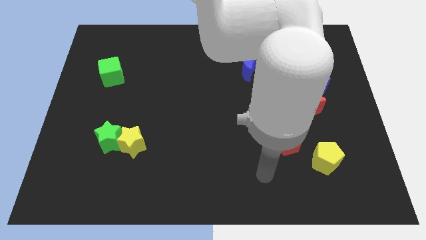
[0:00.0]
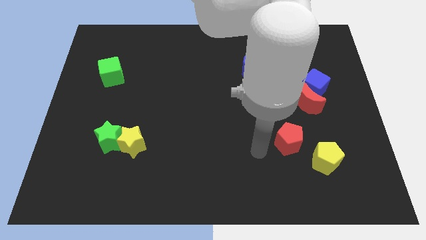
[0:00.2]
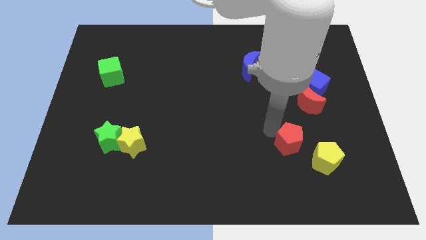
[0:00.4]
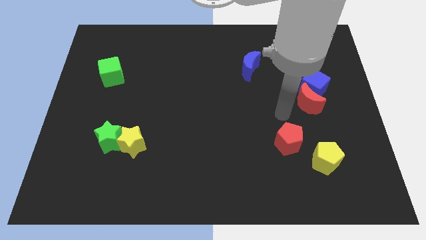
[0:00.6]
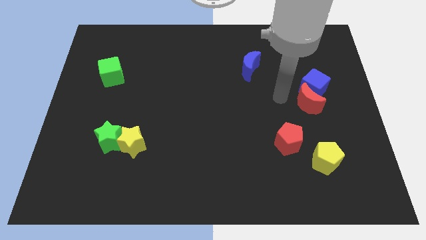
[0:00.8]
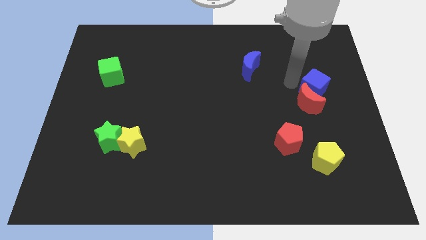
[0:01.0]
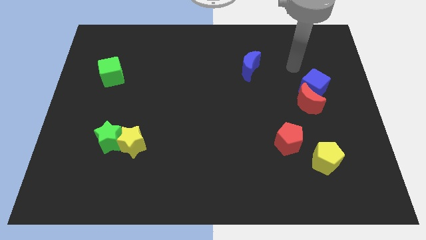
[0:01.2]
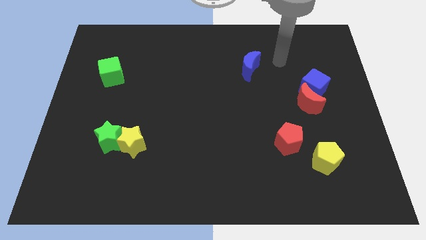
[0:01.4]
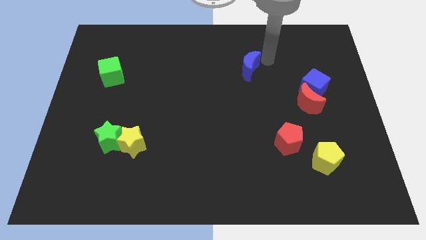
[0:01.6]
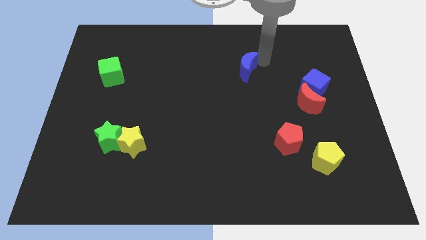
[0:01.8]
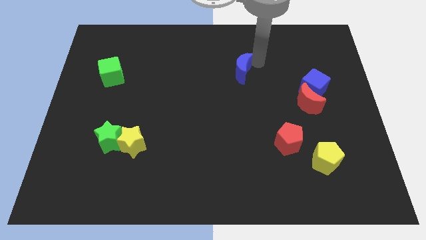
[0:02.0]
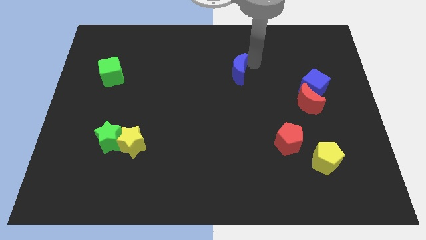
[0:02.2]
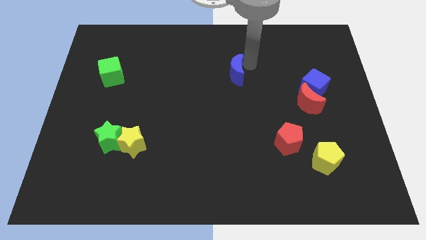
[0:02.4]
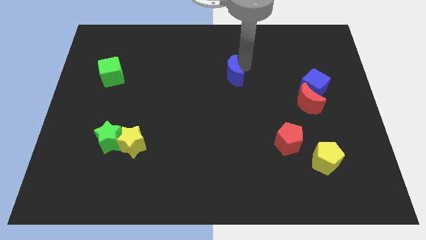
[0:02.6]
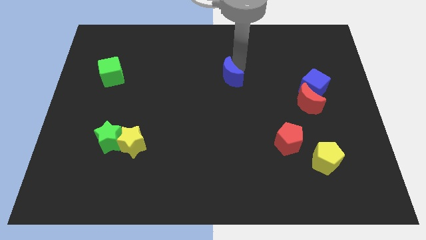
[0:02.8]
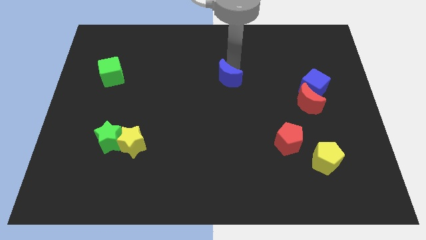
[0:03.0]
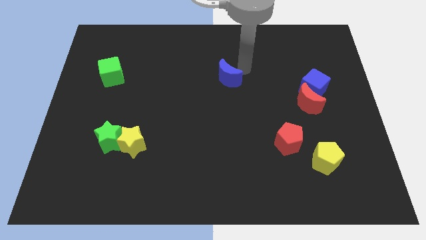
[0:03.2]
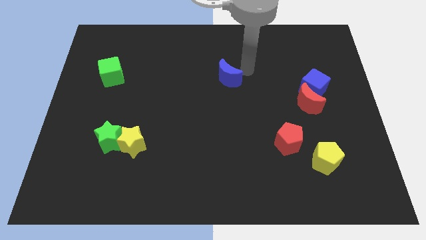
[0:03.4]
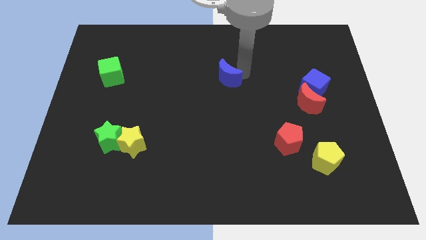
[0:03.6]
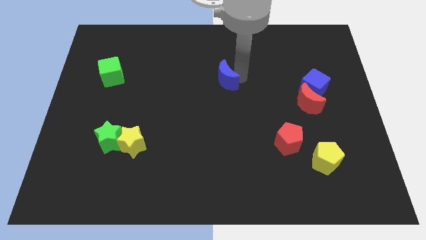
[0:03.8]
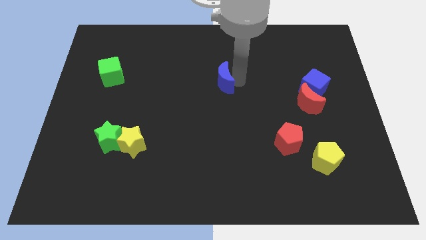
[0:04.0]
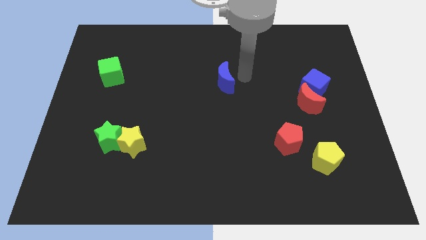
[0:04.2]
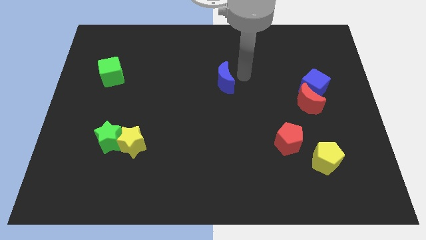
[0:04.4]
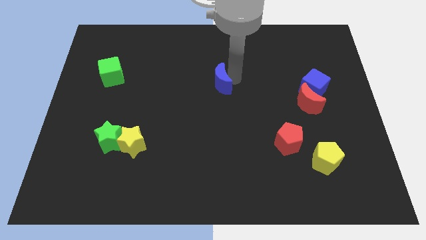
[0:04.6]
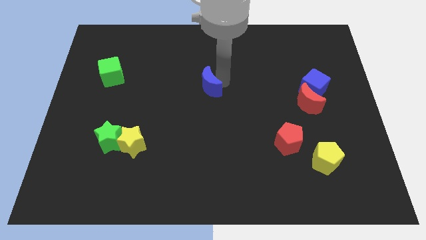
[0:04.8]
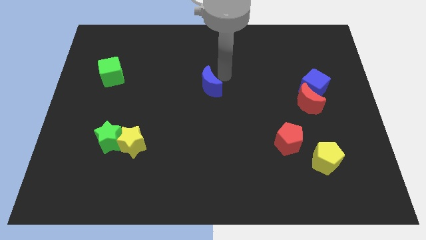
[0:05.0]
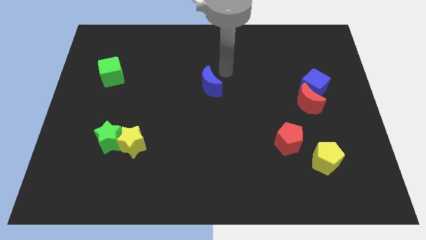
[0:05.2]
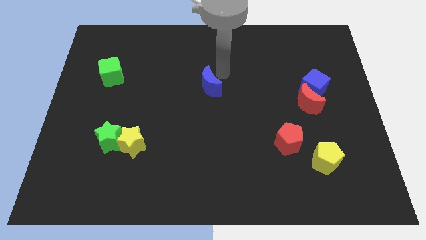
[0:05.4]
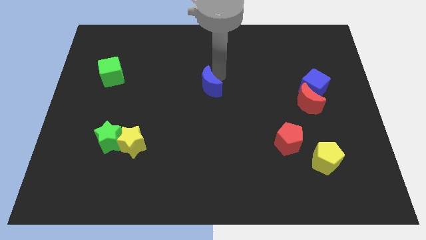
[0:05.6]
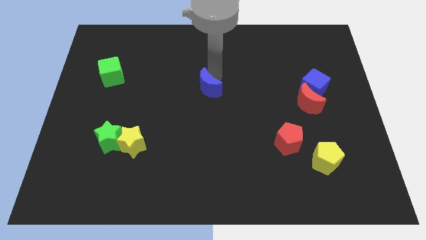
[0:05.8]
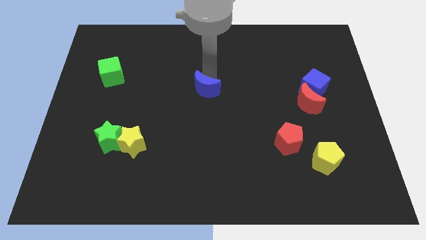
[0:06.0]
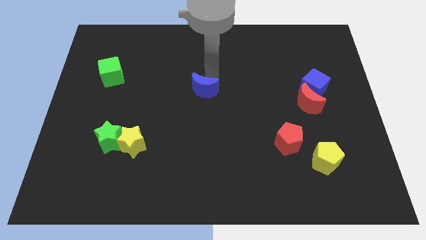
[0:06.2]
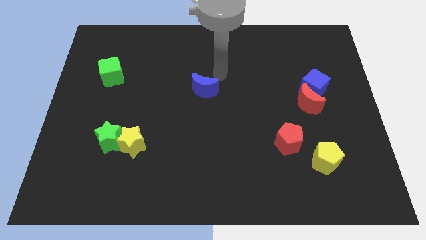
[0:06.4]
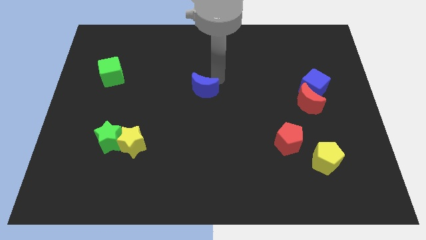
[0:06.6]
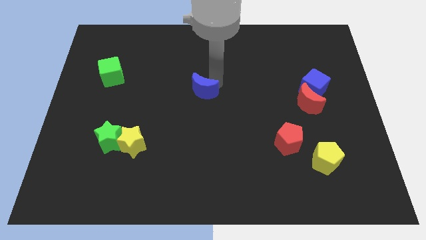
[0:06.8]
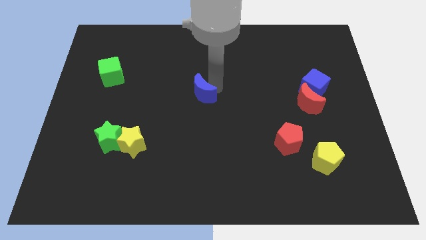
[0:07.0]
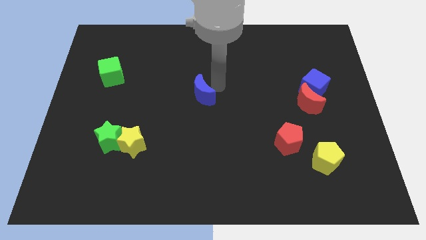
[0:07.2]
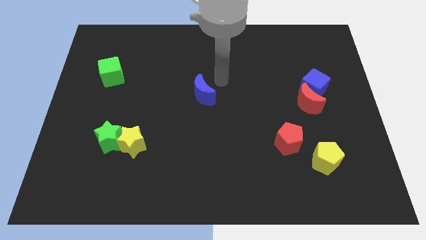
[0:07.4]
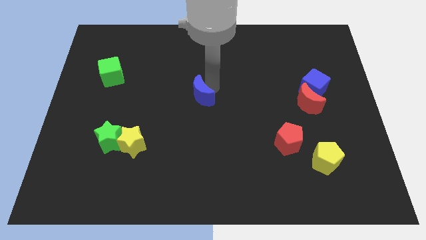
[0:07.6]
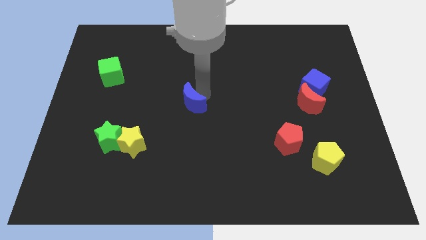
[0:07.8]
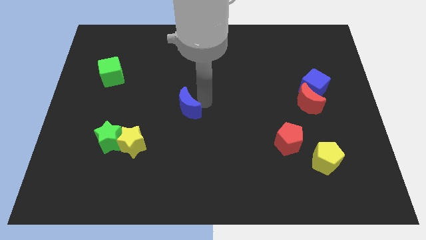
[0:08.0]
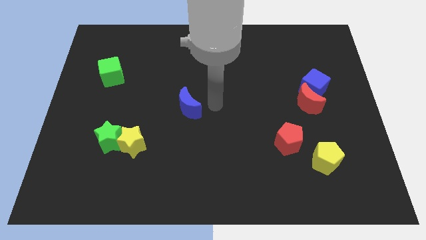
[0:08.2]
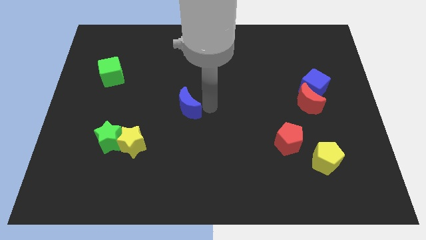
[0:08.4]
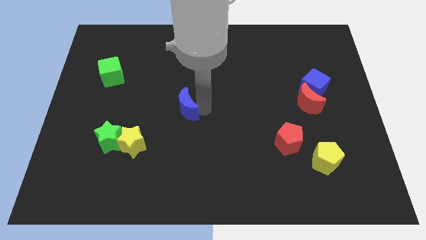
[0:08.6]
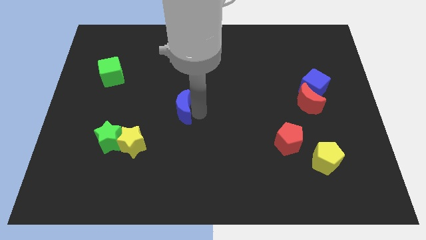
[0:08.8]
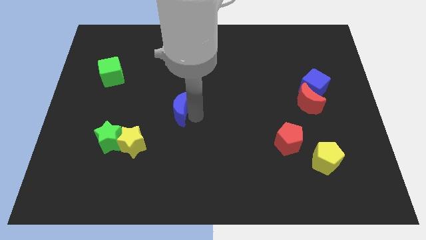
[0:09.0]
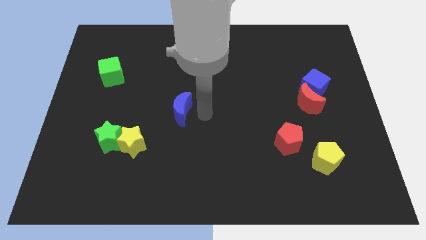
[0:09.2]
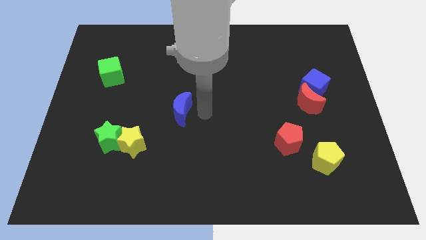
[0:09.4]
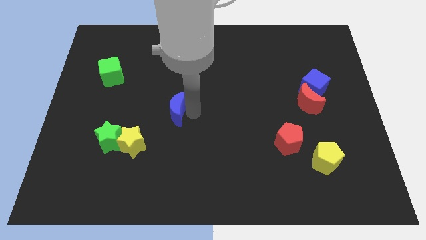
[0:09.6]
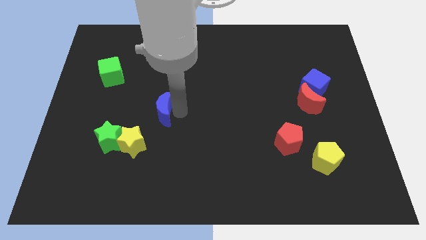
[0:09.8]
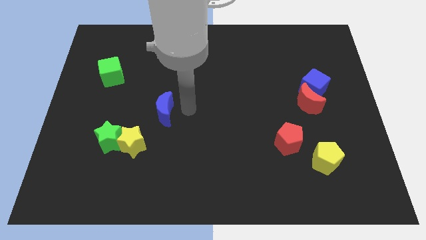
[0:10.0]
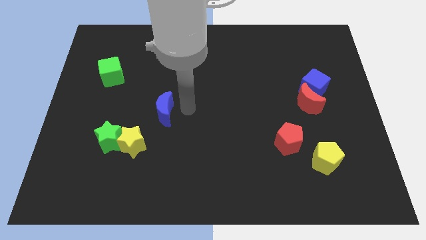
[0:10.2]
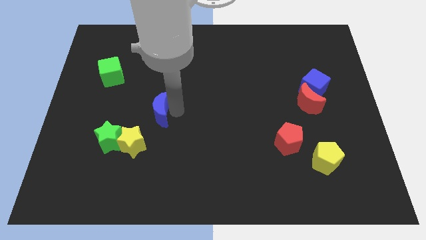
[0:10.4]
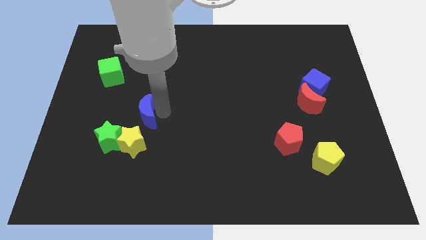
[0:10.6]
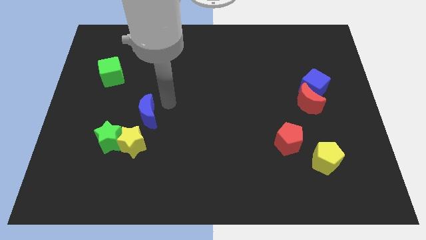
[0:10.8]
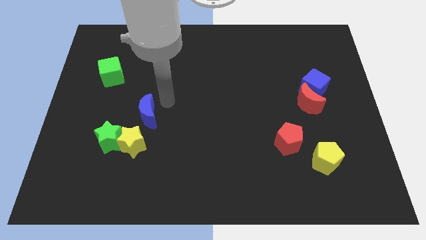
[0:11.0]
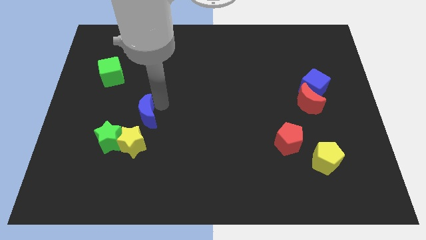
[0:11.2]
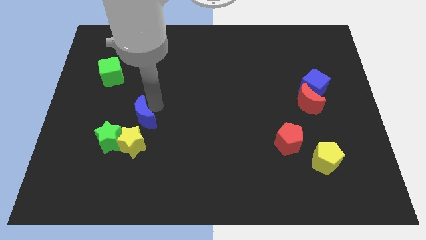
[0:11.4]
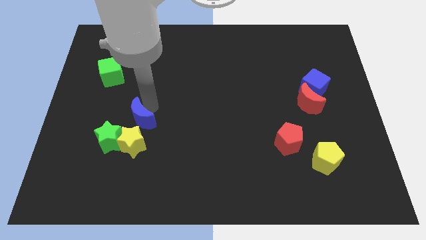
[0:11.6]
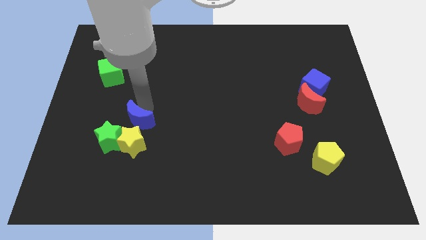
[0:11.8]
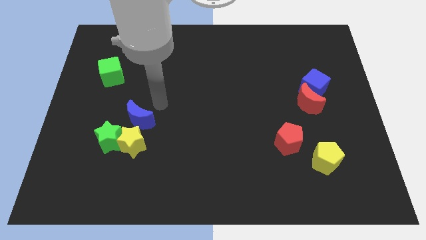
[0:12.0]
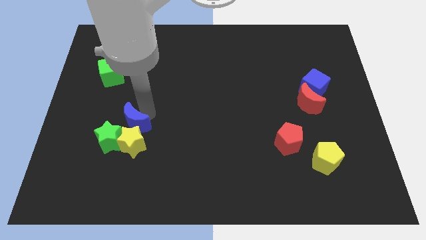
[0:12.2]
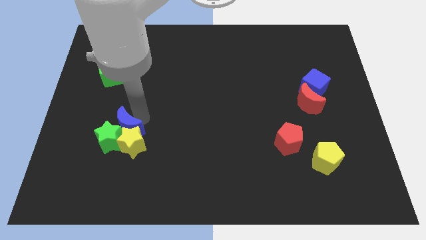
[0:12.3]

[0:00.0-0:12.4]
put the blue moon to the green star
